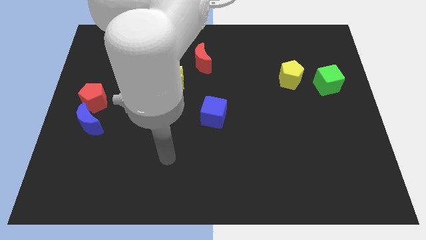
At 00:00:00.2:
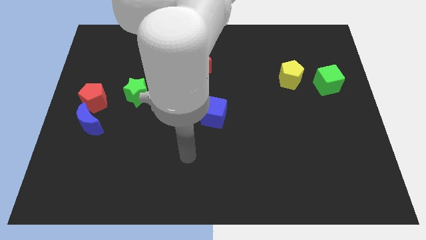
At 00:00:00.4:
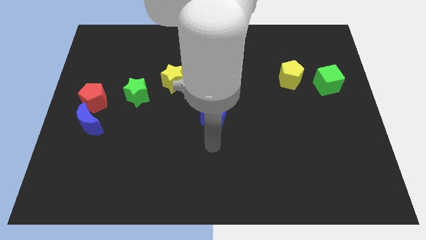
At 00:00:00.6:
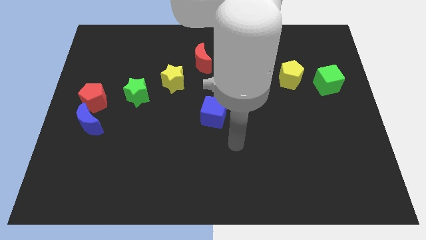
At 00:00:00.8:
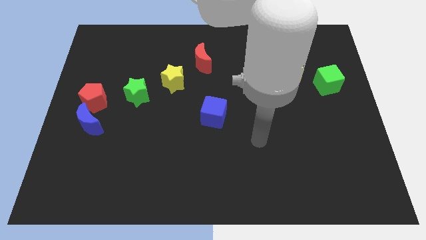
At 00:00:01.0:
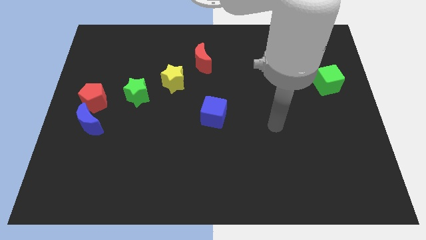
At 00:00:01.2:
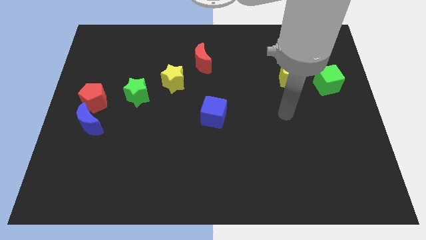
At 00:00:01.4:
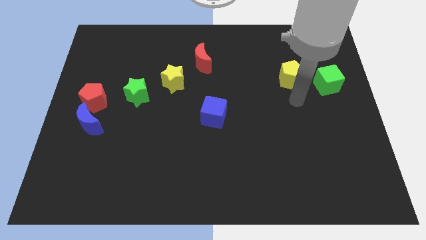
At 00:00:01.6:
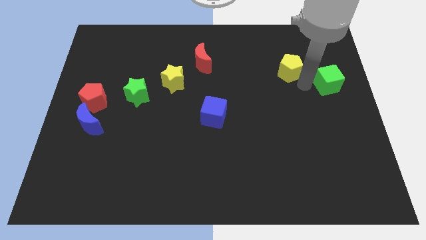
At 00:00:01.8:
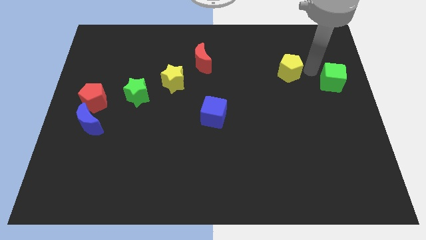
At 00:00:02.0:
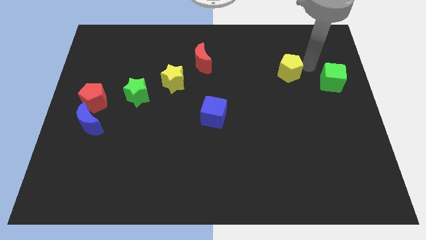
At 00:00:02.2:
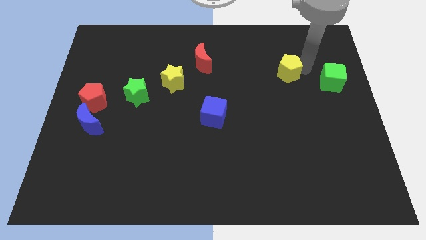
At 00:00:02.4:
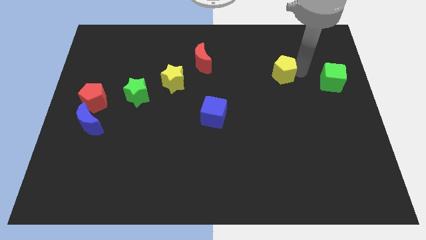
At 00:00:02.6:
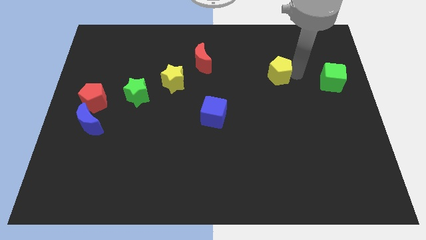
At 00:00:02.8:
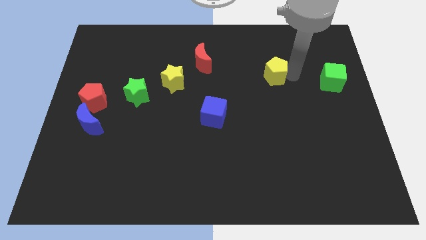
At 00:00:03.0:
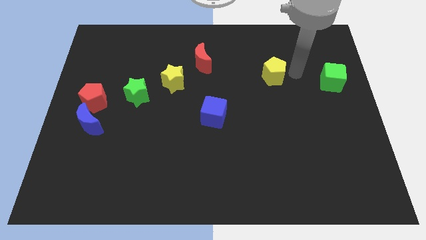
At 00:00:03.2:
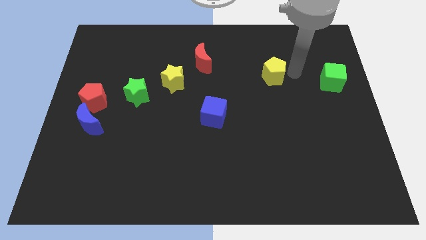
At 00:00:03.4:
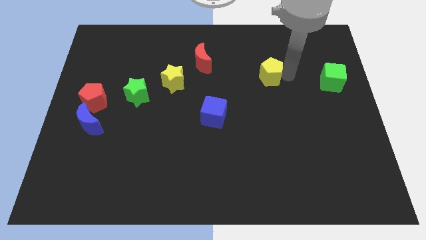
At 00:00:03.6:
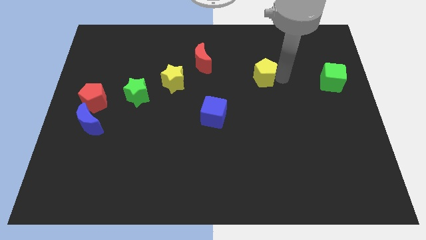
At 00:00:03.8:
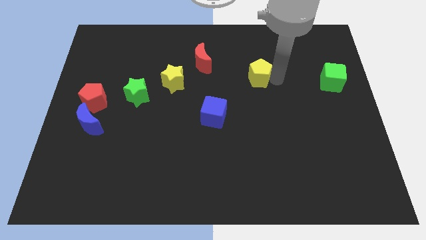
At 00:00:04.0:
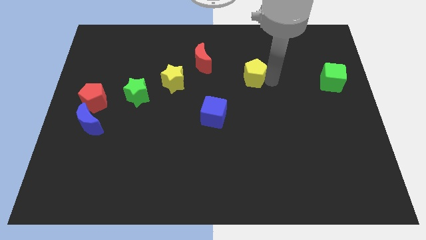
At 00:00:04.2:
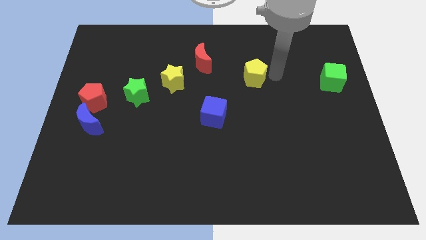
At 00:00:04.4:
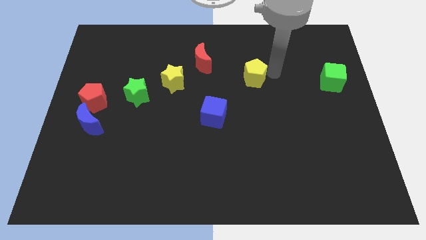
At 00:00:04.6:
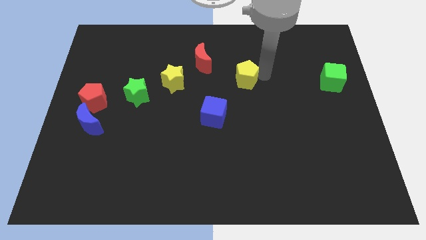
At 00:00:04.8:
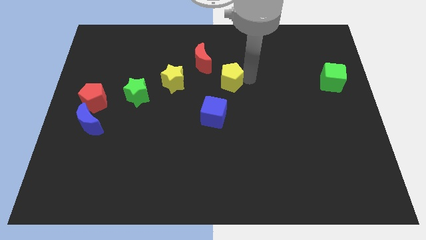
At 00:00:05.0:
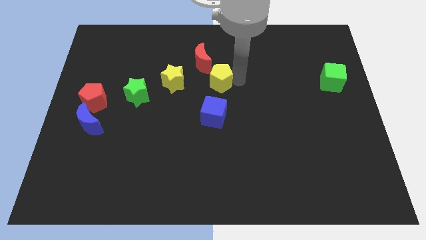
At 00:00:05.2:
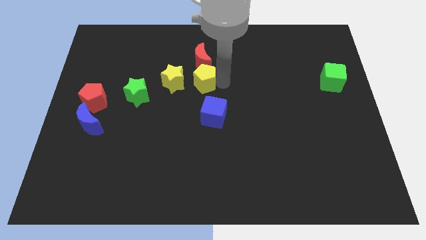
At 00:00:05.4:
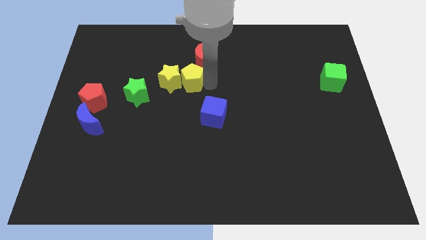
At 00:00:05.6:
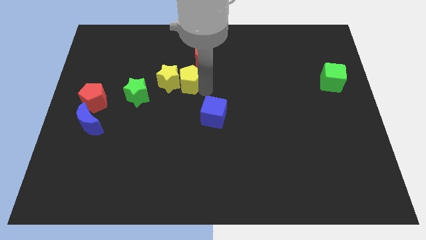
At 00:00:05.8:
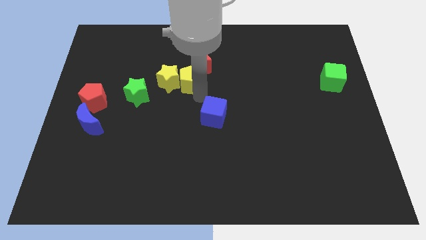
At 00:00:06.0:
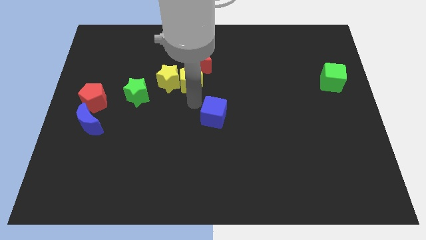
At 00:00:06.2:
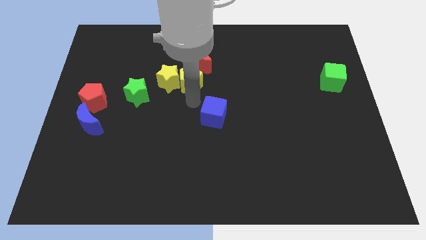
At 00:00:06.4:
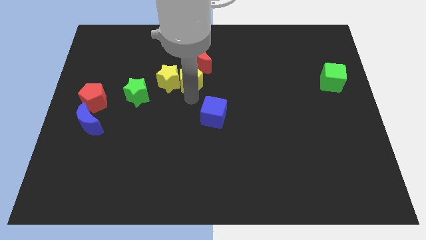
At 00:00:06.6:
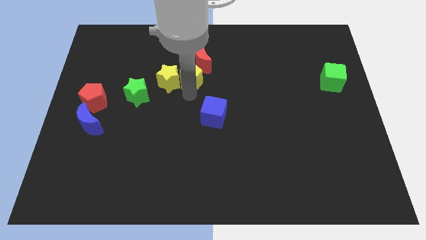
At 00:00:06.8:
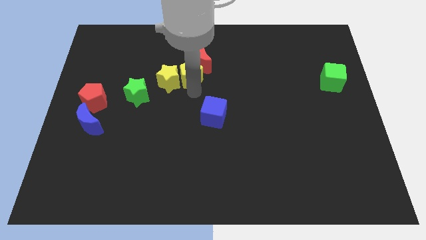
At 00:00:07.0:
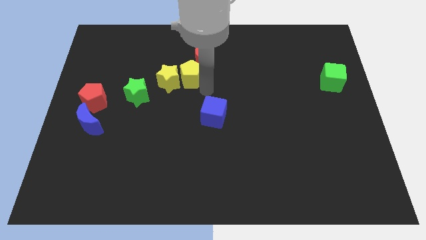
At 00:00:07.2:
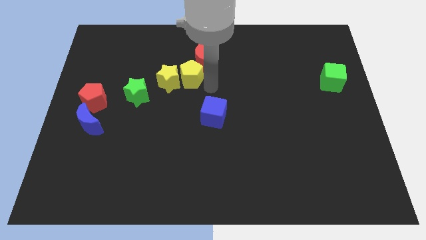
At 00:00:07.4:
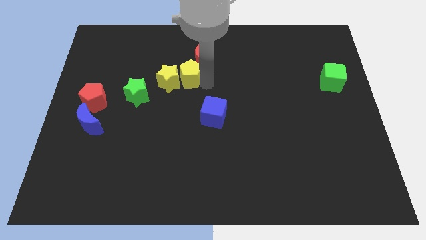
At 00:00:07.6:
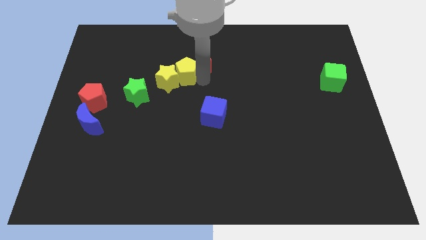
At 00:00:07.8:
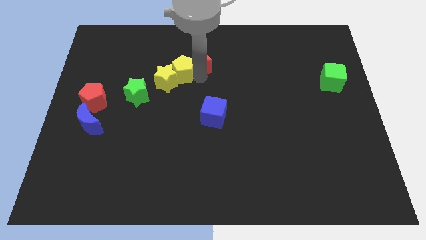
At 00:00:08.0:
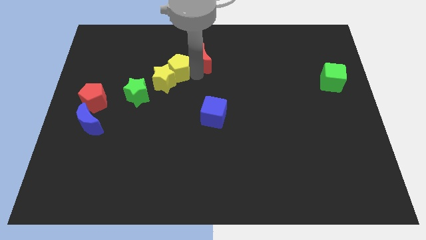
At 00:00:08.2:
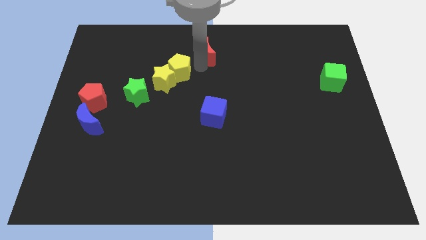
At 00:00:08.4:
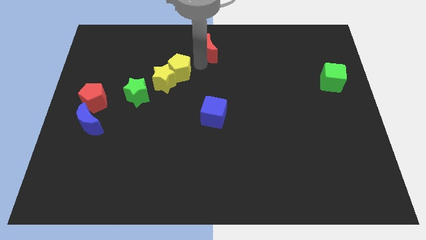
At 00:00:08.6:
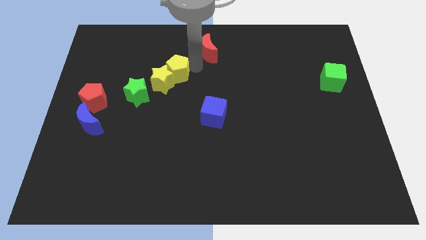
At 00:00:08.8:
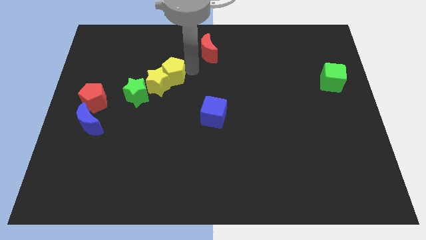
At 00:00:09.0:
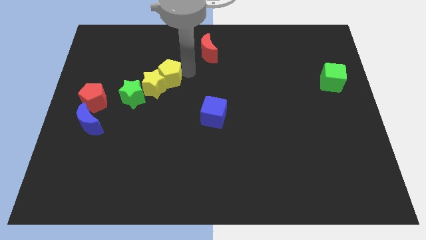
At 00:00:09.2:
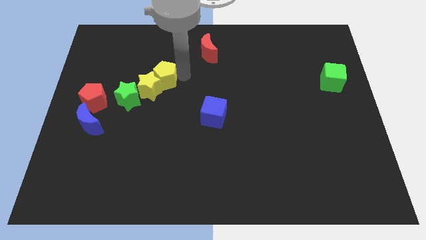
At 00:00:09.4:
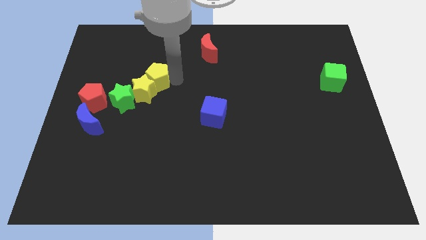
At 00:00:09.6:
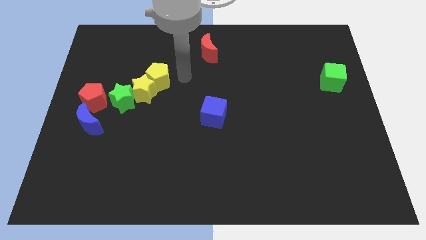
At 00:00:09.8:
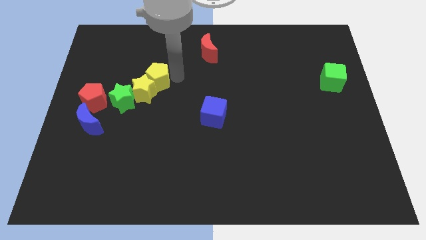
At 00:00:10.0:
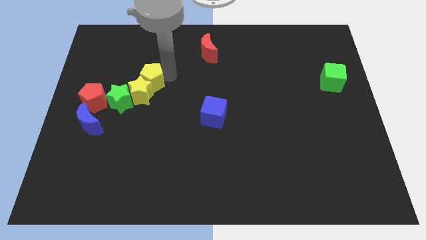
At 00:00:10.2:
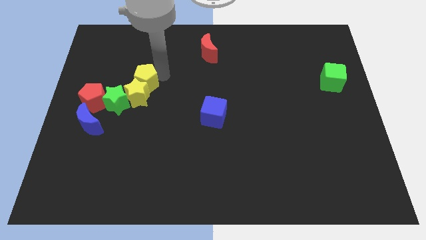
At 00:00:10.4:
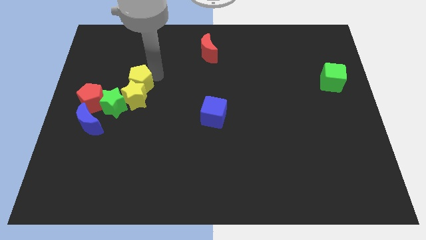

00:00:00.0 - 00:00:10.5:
slide the yellow pentagon to the top right of the red pentagon

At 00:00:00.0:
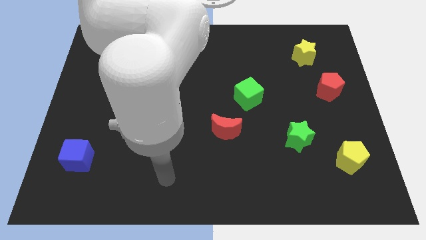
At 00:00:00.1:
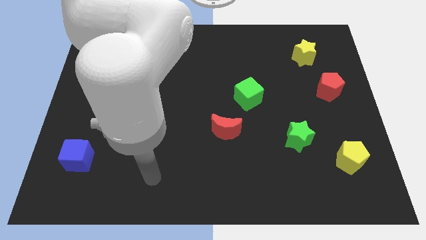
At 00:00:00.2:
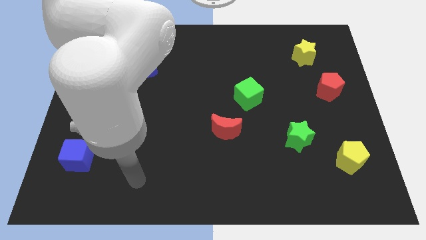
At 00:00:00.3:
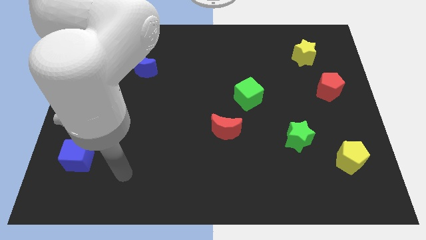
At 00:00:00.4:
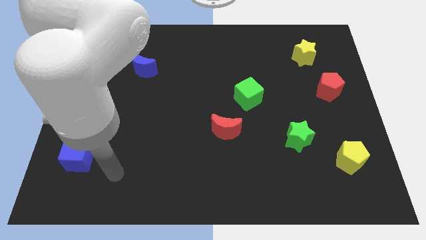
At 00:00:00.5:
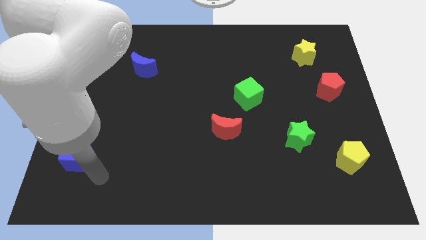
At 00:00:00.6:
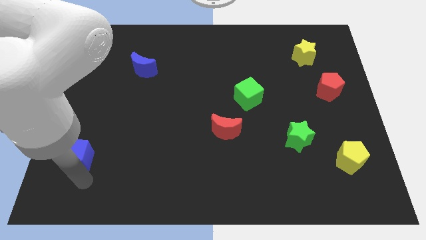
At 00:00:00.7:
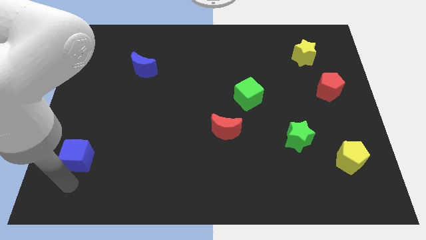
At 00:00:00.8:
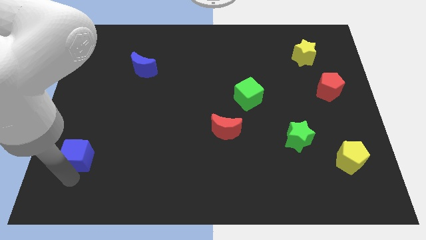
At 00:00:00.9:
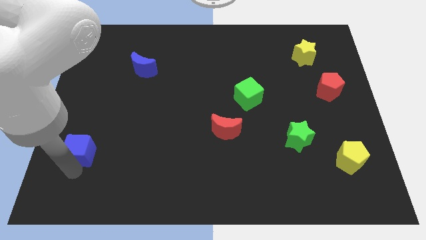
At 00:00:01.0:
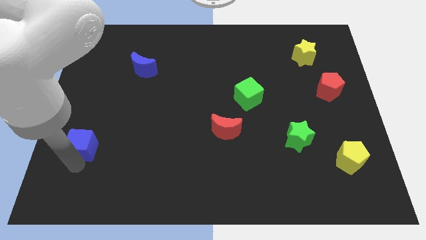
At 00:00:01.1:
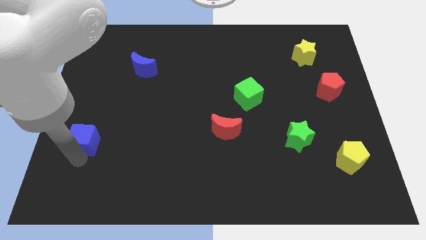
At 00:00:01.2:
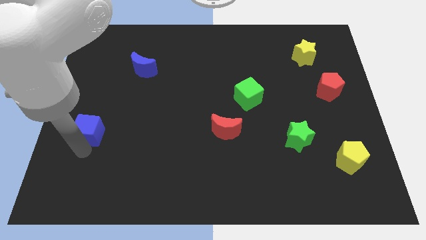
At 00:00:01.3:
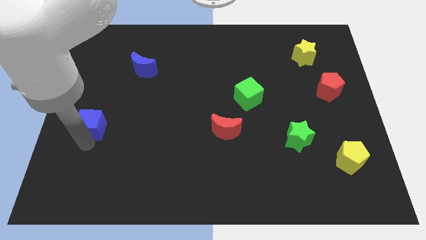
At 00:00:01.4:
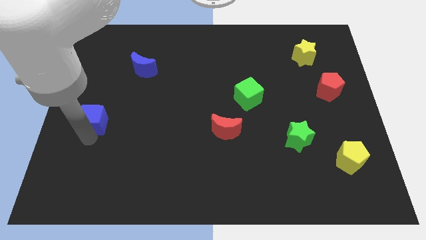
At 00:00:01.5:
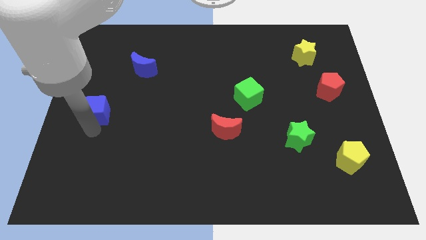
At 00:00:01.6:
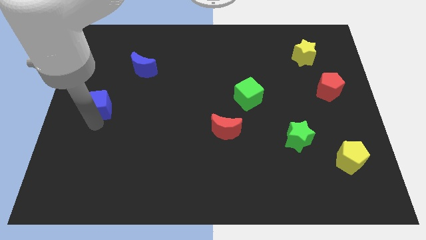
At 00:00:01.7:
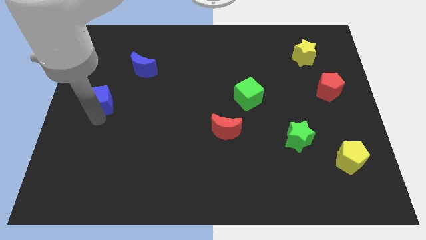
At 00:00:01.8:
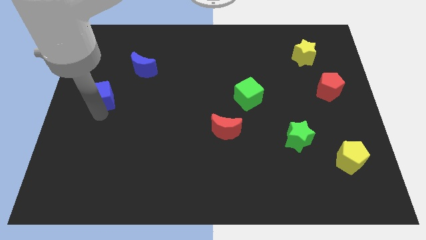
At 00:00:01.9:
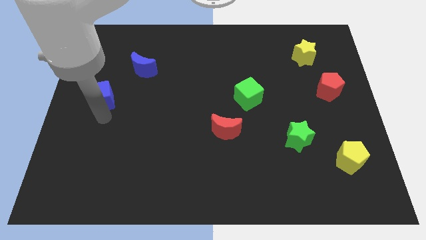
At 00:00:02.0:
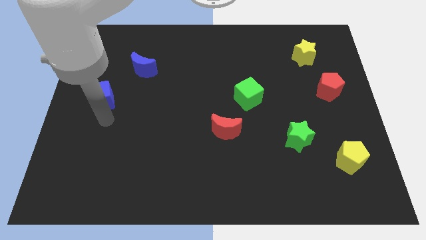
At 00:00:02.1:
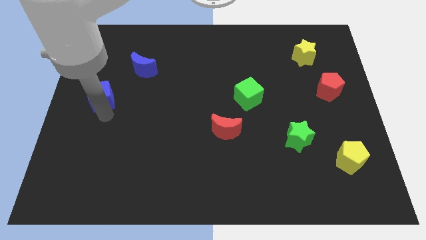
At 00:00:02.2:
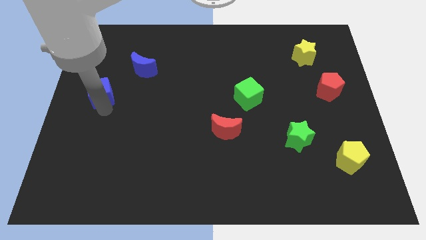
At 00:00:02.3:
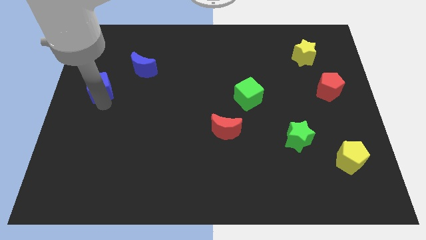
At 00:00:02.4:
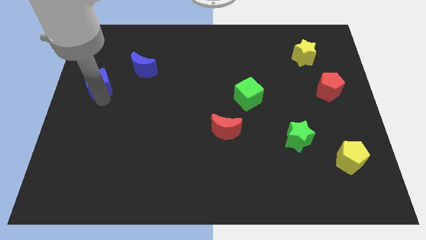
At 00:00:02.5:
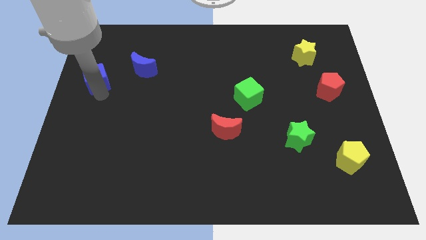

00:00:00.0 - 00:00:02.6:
push the blue cube left of the blue moon
